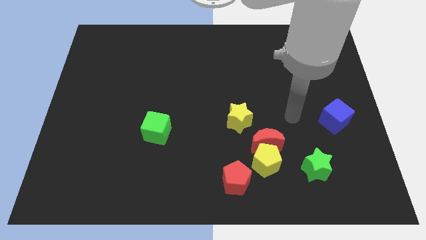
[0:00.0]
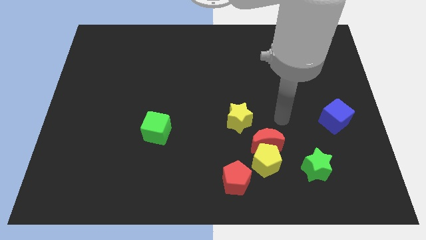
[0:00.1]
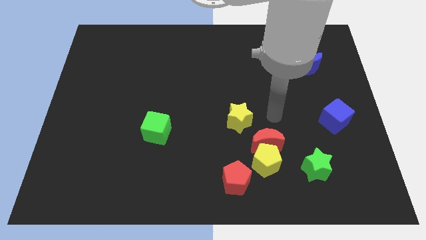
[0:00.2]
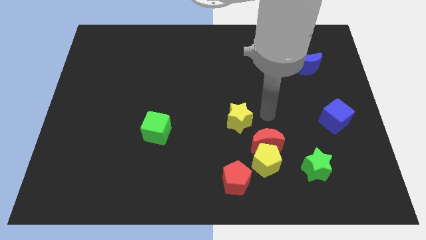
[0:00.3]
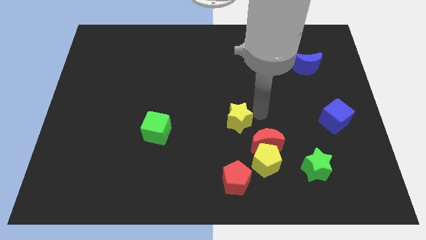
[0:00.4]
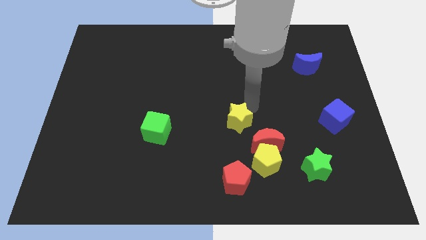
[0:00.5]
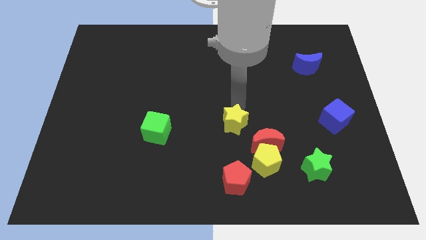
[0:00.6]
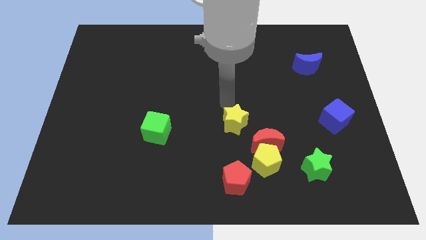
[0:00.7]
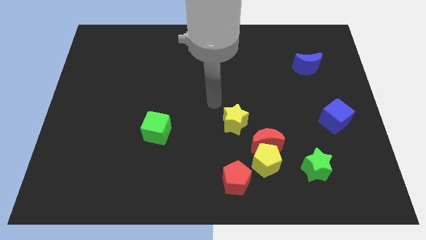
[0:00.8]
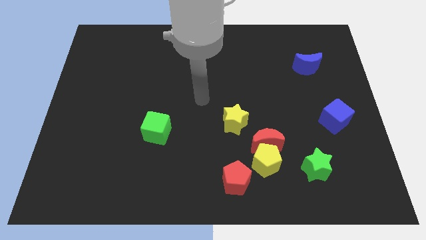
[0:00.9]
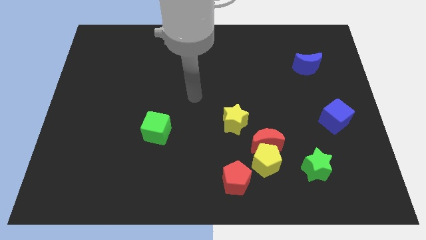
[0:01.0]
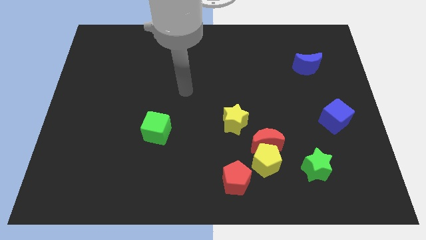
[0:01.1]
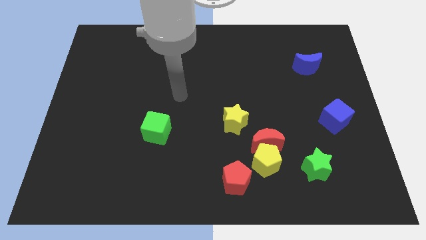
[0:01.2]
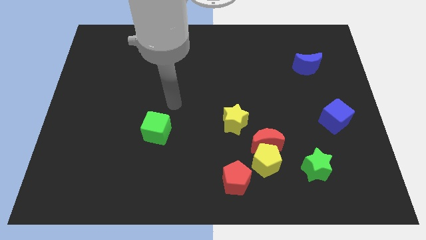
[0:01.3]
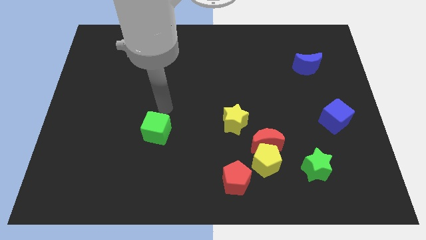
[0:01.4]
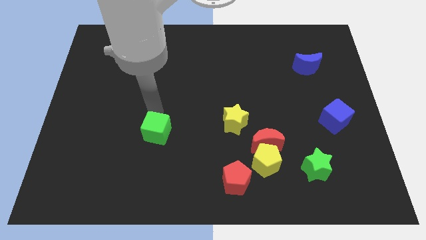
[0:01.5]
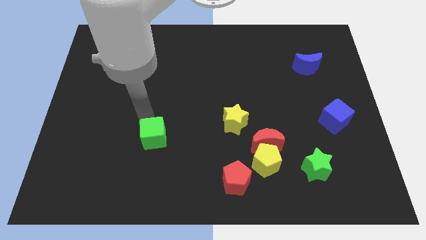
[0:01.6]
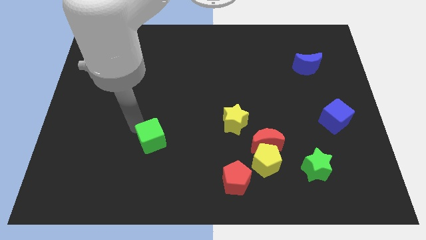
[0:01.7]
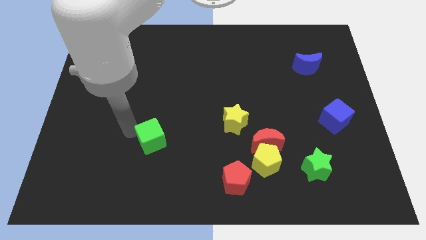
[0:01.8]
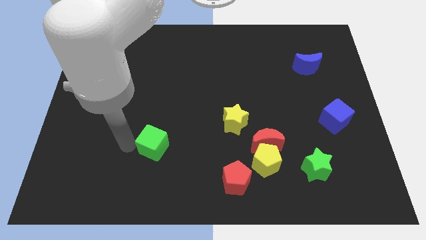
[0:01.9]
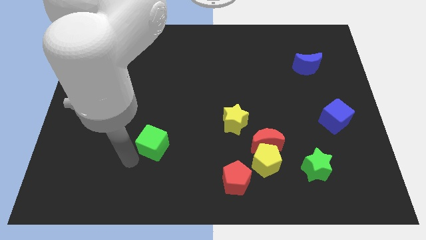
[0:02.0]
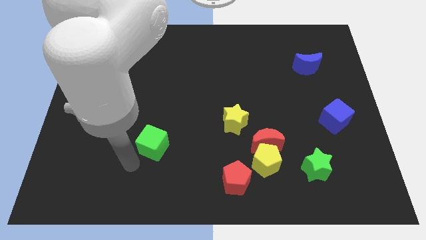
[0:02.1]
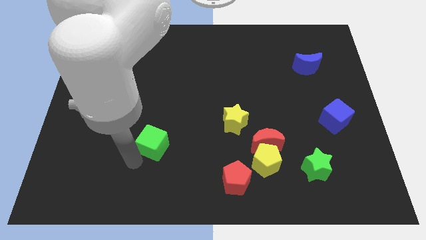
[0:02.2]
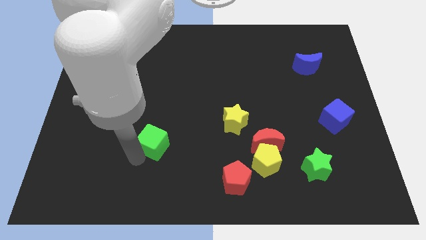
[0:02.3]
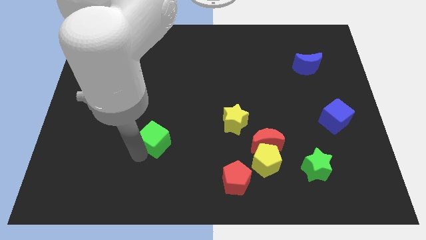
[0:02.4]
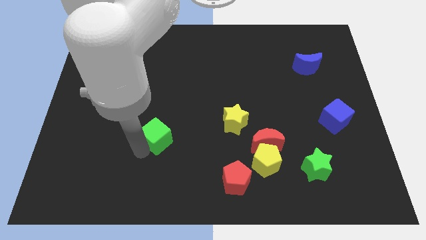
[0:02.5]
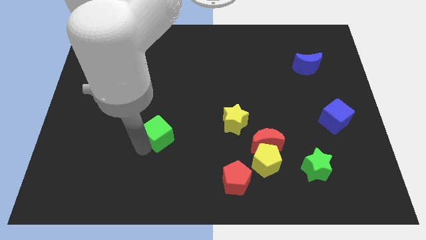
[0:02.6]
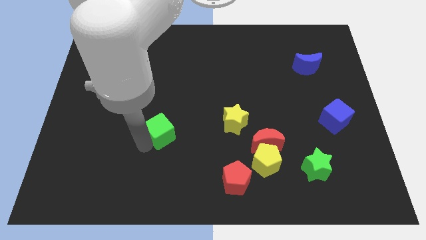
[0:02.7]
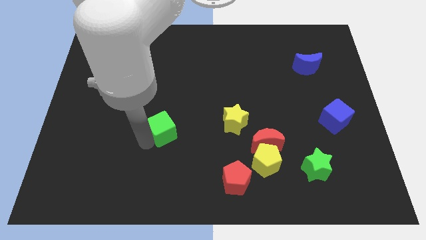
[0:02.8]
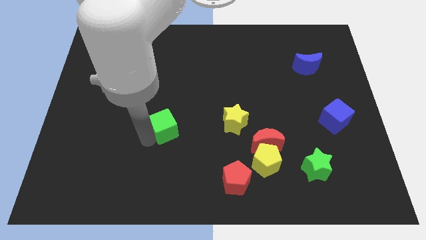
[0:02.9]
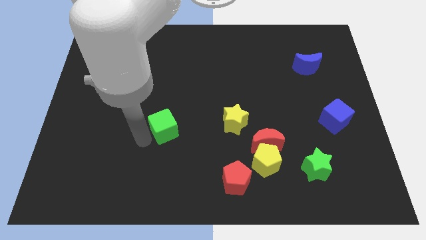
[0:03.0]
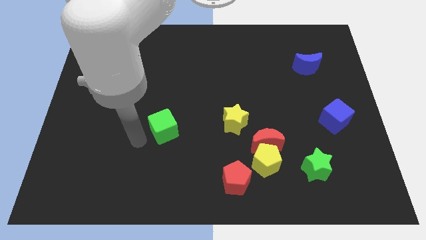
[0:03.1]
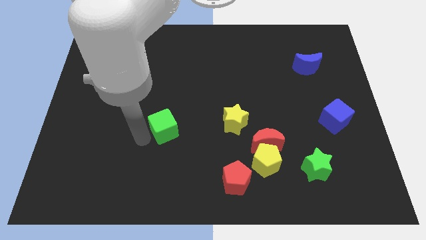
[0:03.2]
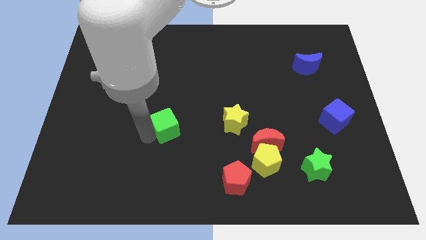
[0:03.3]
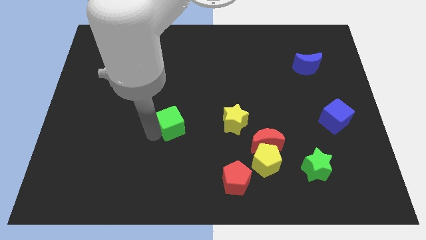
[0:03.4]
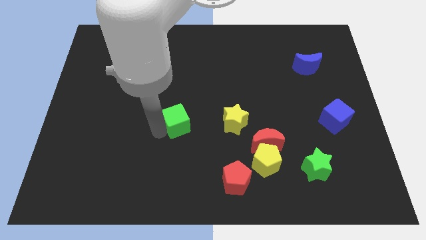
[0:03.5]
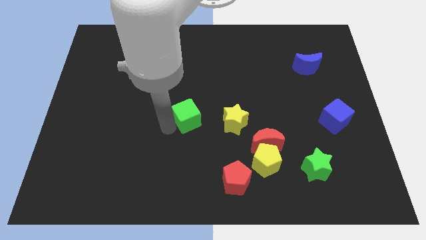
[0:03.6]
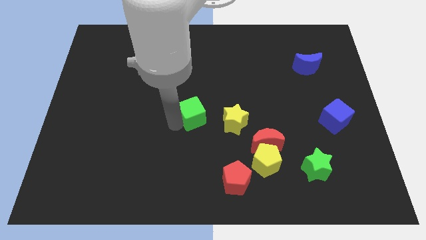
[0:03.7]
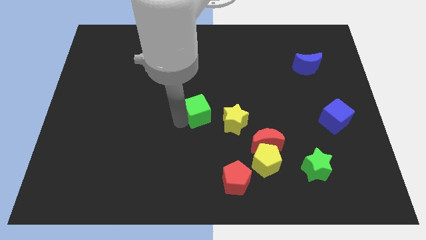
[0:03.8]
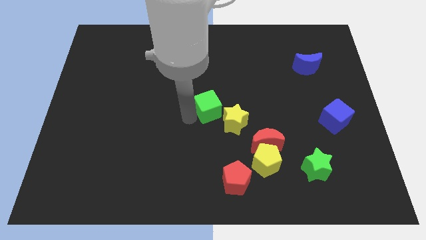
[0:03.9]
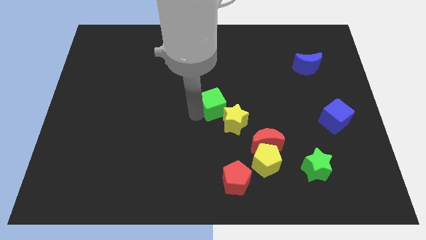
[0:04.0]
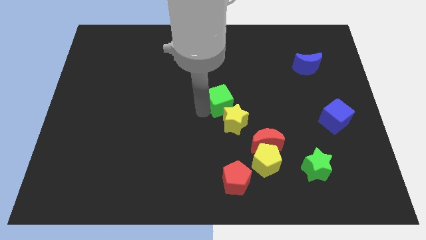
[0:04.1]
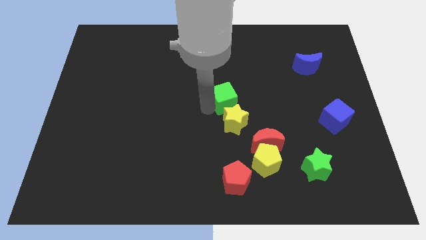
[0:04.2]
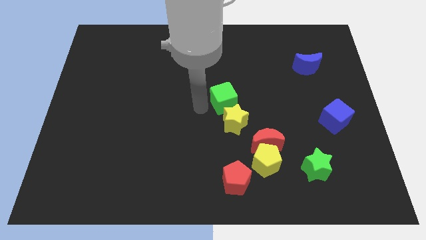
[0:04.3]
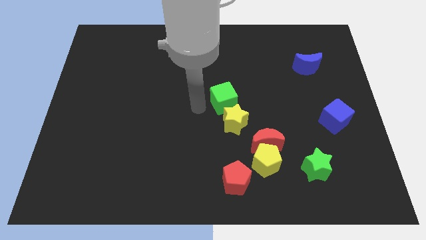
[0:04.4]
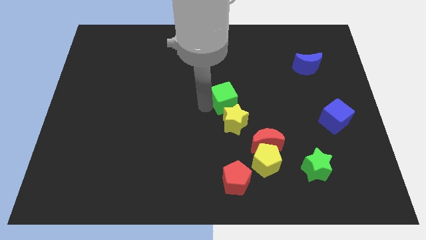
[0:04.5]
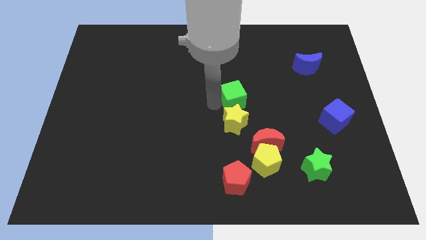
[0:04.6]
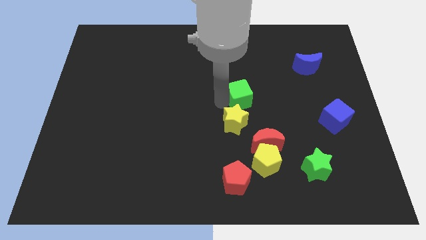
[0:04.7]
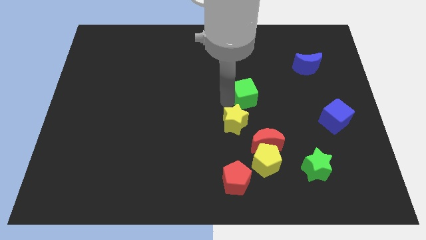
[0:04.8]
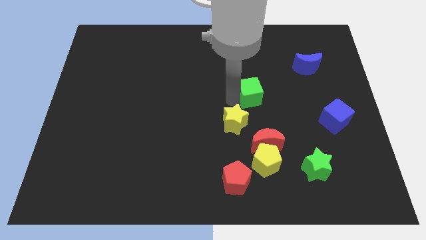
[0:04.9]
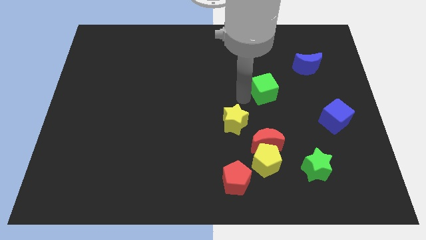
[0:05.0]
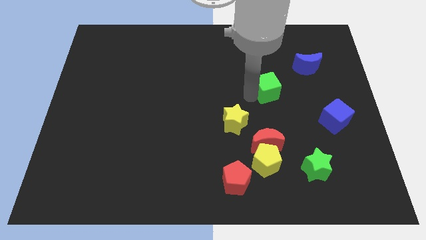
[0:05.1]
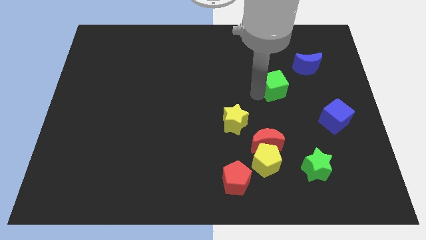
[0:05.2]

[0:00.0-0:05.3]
slide the green cube to the bottom left side of the blue moon

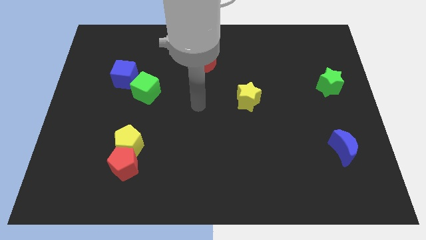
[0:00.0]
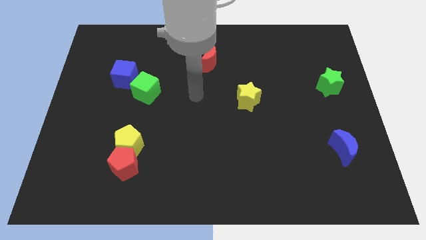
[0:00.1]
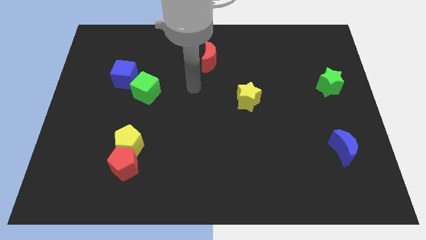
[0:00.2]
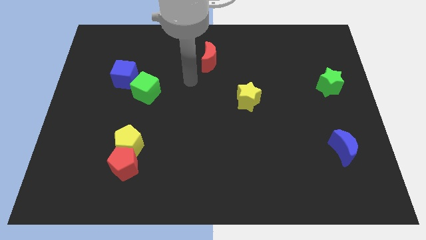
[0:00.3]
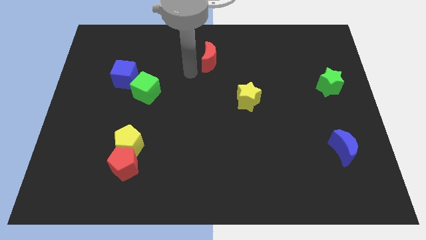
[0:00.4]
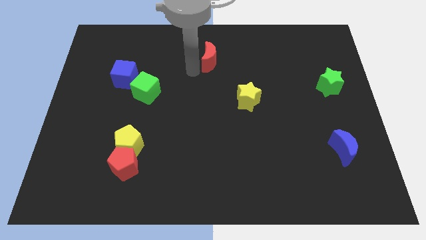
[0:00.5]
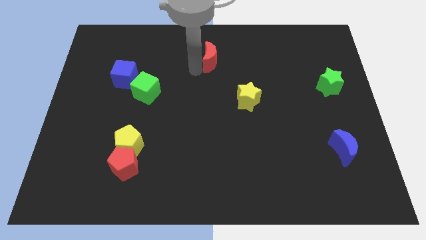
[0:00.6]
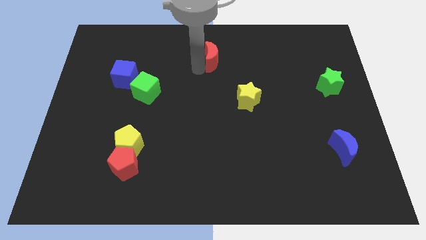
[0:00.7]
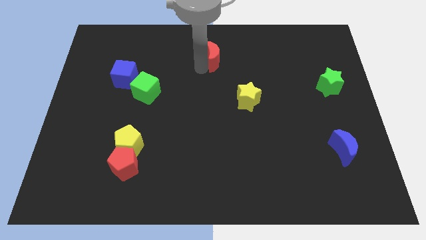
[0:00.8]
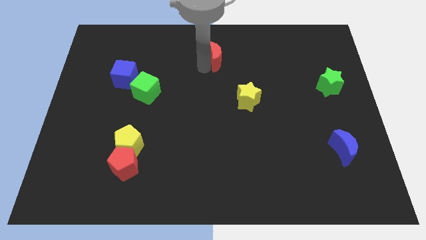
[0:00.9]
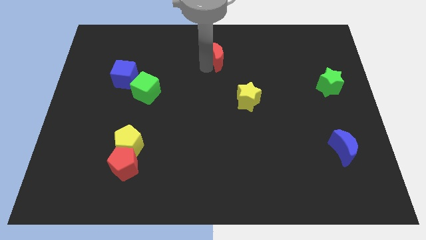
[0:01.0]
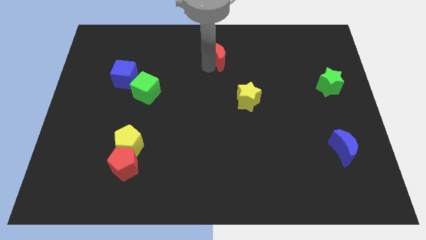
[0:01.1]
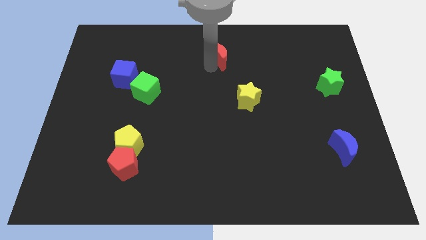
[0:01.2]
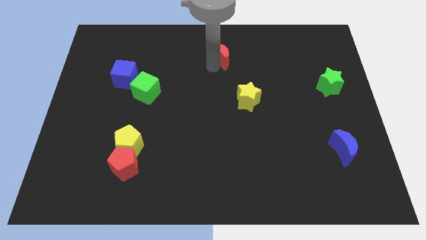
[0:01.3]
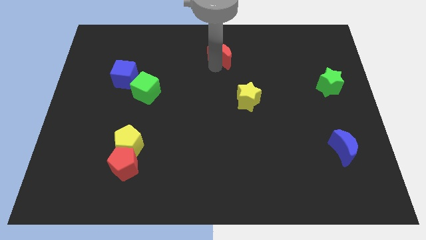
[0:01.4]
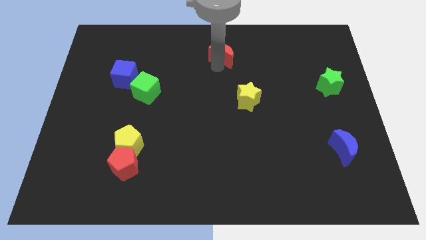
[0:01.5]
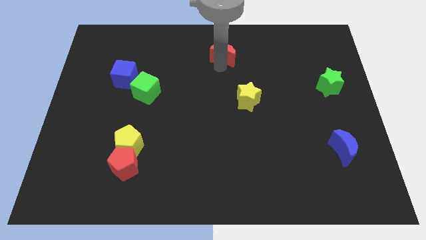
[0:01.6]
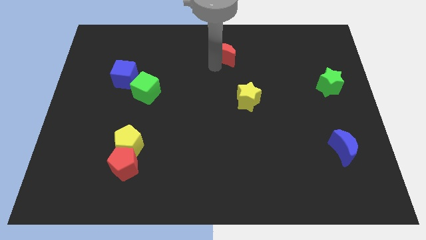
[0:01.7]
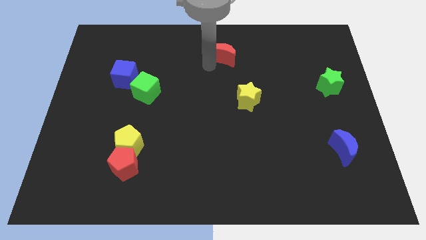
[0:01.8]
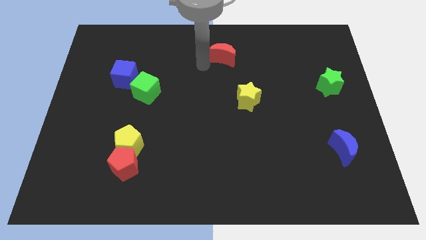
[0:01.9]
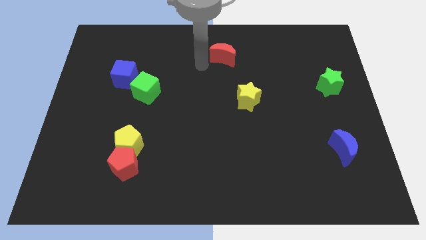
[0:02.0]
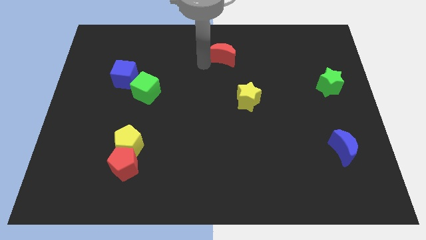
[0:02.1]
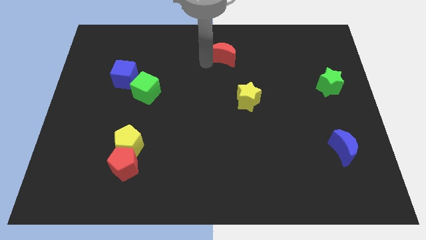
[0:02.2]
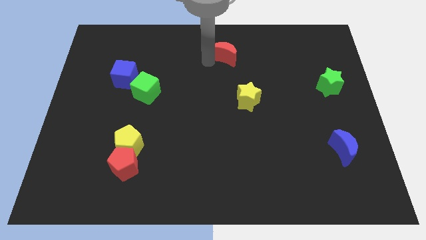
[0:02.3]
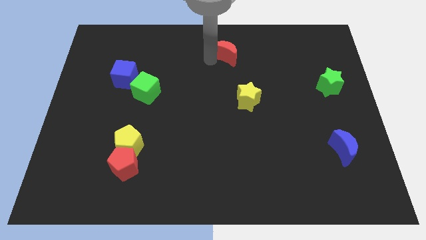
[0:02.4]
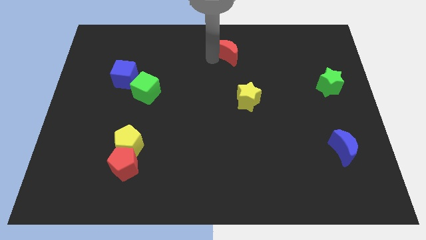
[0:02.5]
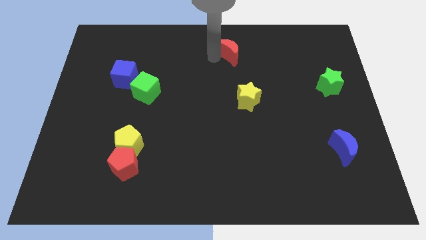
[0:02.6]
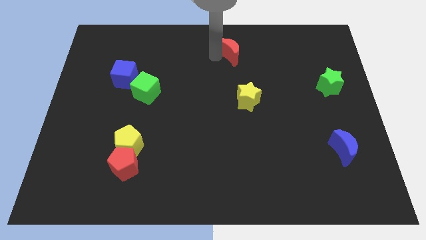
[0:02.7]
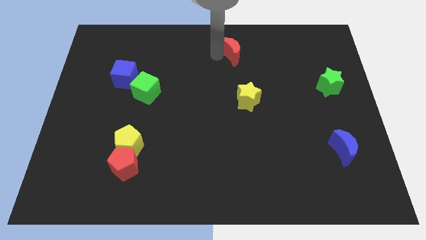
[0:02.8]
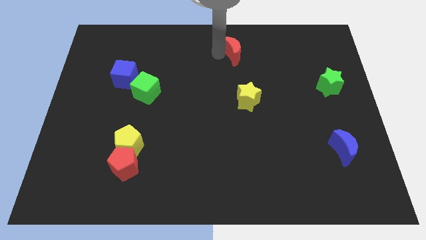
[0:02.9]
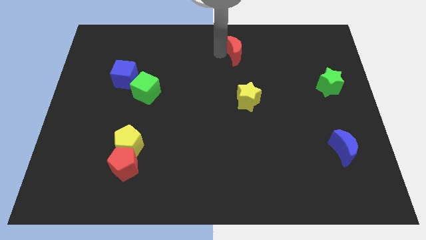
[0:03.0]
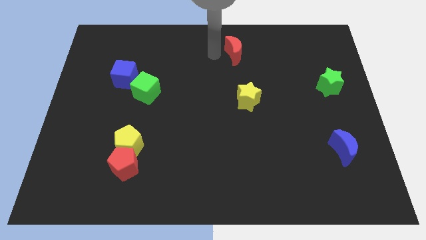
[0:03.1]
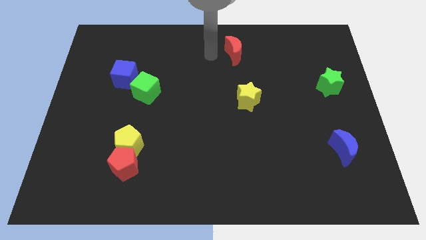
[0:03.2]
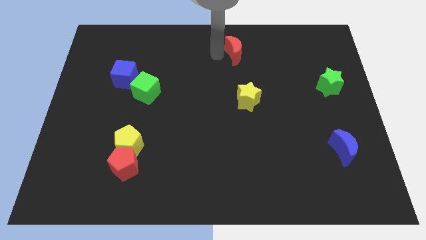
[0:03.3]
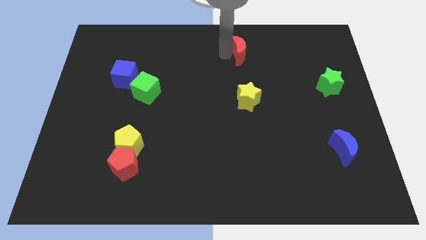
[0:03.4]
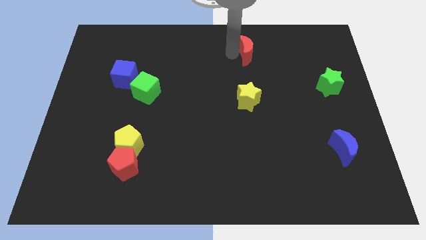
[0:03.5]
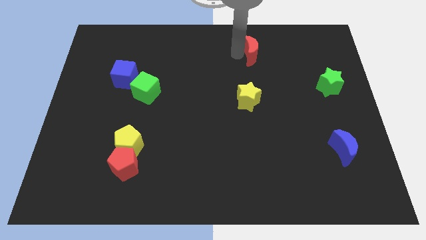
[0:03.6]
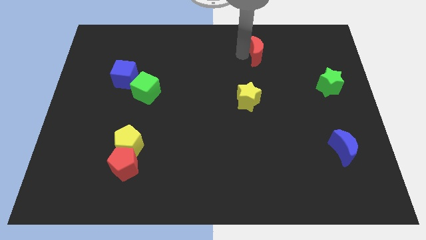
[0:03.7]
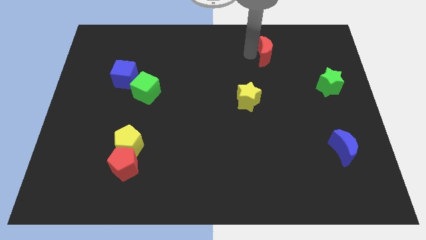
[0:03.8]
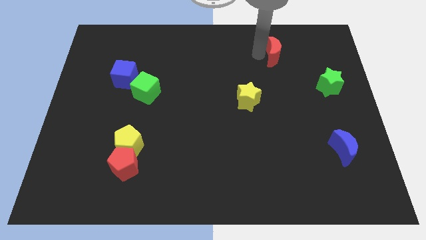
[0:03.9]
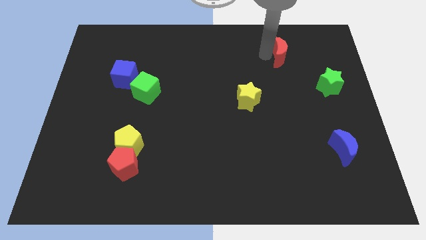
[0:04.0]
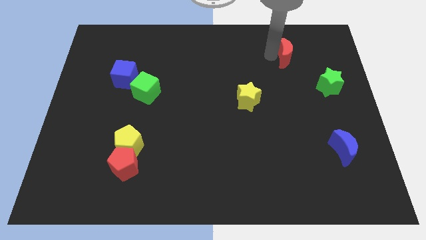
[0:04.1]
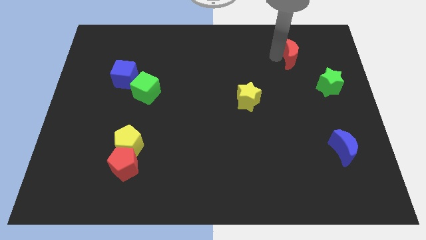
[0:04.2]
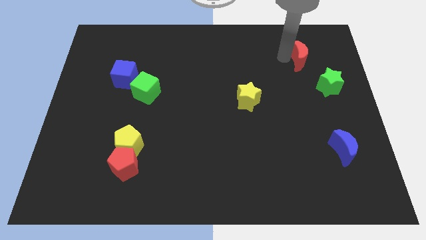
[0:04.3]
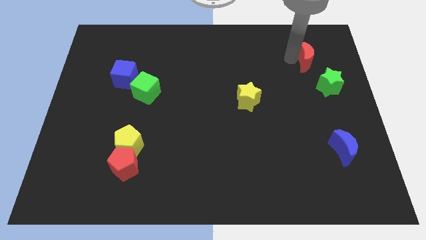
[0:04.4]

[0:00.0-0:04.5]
slide the red moon to the top of the green star
